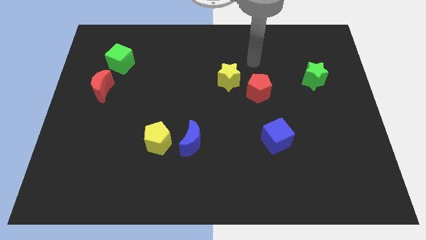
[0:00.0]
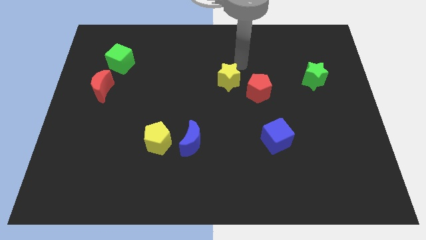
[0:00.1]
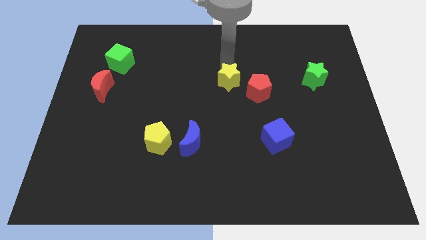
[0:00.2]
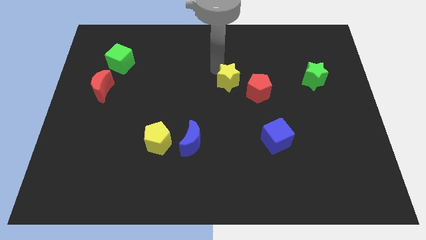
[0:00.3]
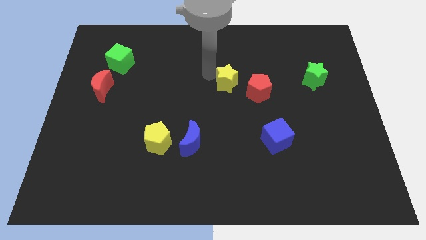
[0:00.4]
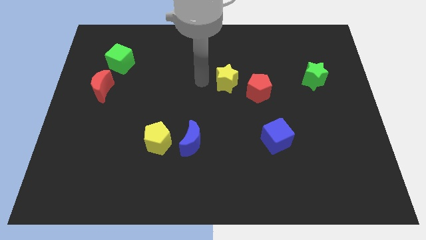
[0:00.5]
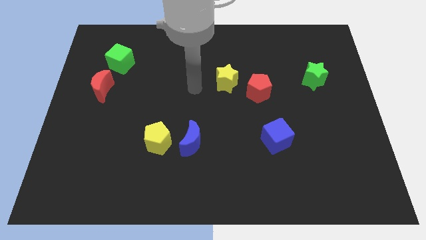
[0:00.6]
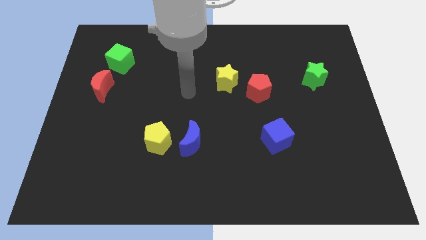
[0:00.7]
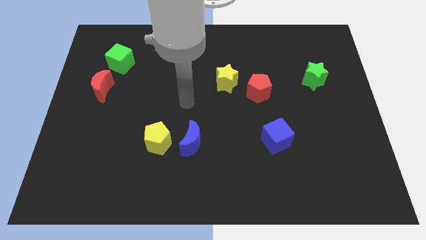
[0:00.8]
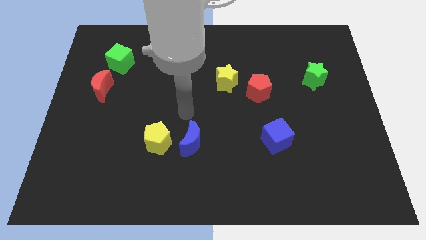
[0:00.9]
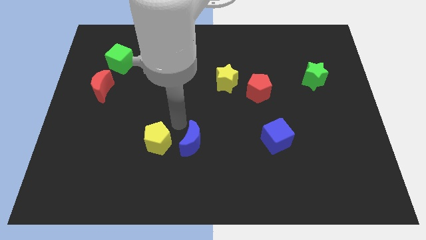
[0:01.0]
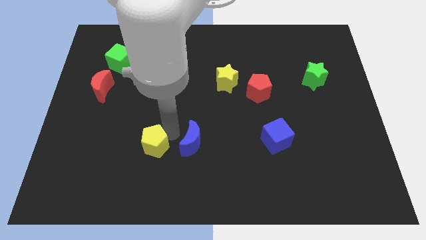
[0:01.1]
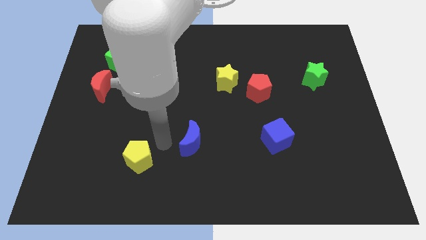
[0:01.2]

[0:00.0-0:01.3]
separate the blue moon from the yellow pentagon

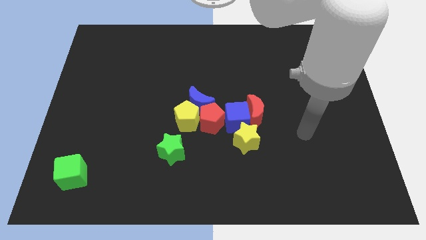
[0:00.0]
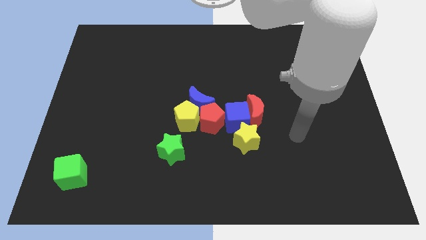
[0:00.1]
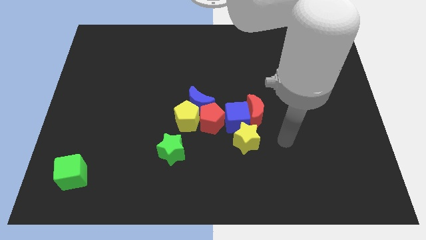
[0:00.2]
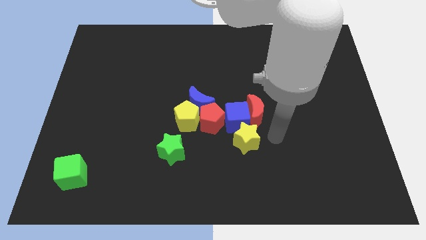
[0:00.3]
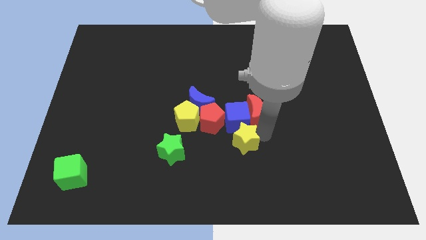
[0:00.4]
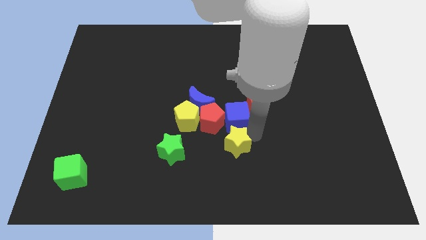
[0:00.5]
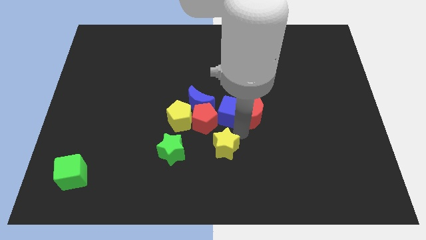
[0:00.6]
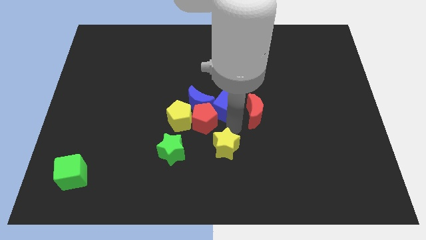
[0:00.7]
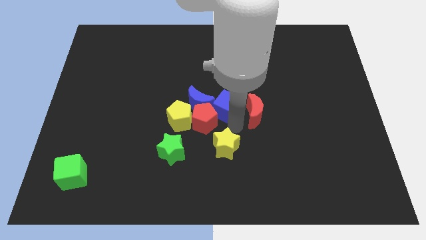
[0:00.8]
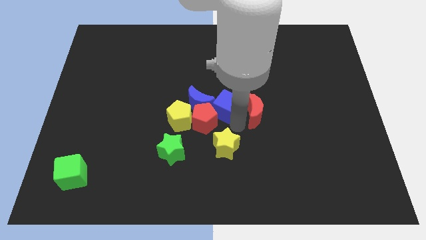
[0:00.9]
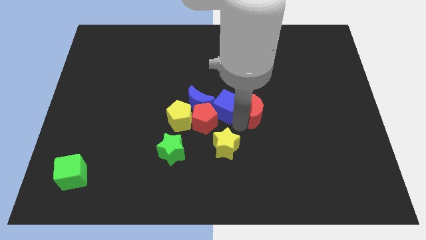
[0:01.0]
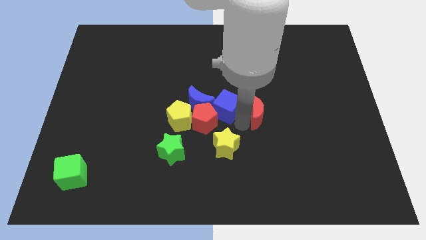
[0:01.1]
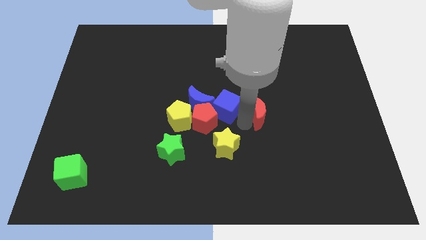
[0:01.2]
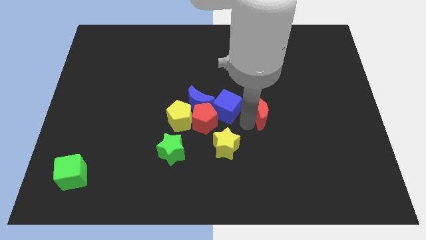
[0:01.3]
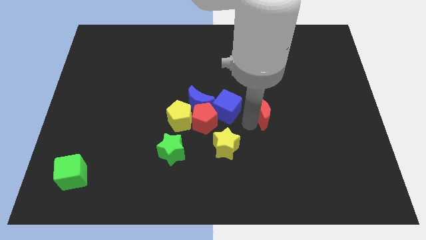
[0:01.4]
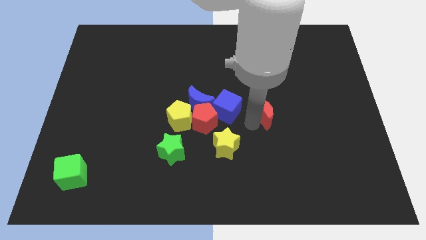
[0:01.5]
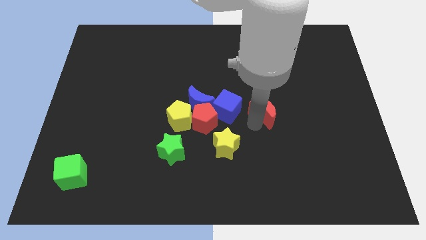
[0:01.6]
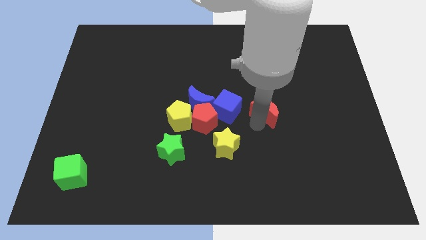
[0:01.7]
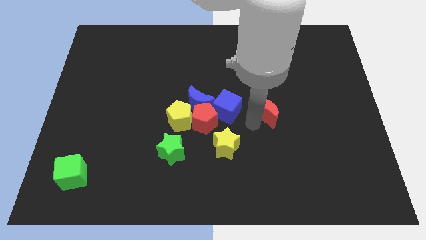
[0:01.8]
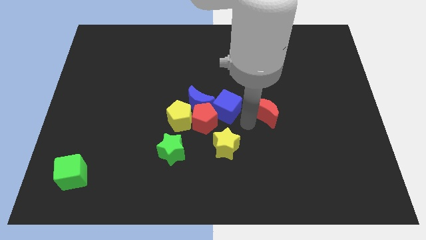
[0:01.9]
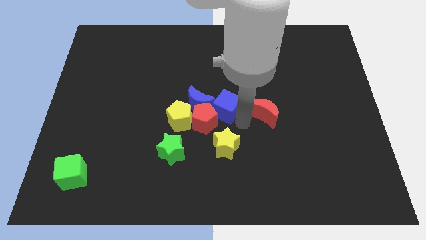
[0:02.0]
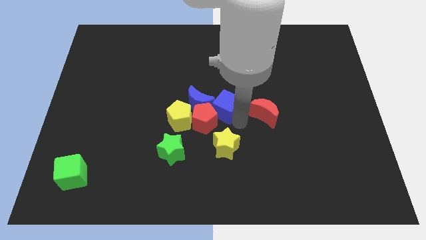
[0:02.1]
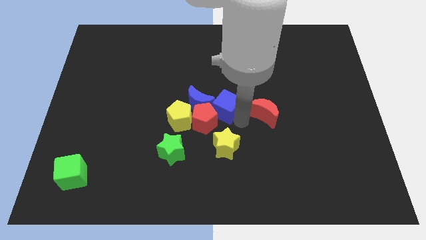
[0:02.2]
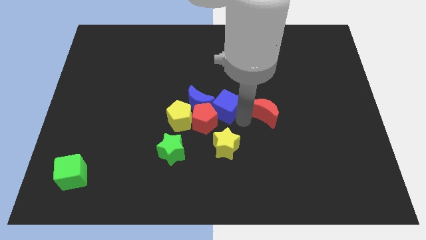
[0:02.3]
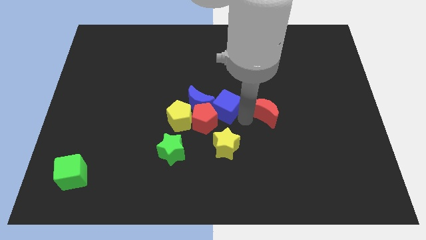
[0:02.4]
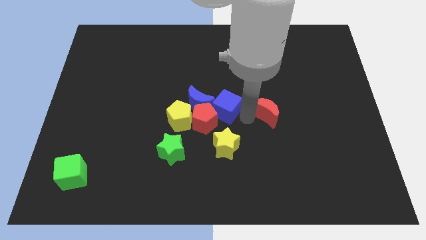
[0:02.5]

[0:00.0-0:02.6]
separate the red moon from the blue cube and yellow star

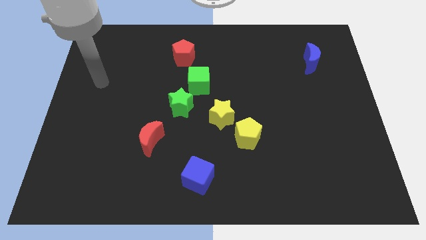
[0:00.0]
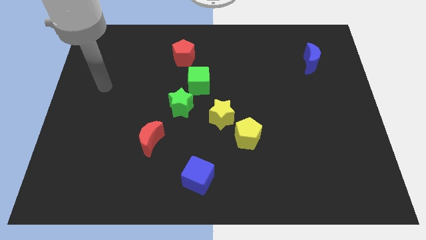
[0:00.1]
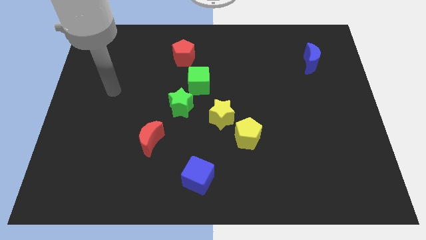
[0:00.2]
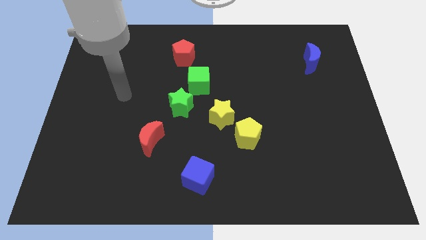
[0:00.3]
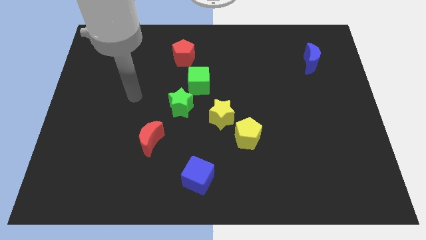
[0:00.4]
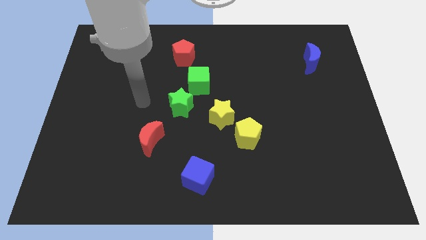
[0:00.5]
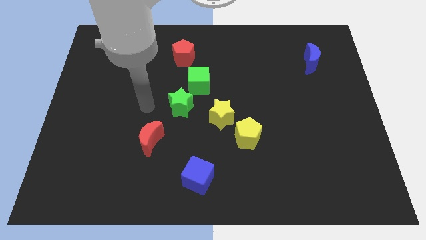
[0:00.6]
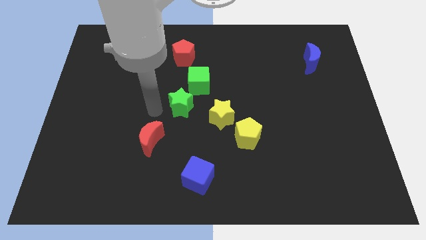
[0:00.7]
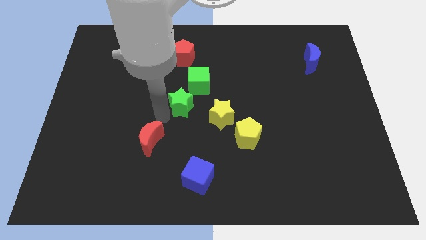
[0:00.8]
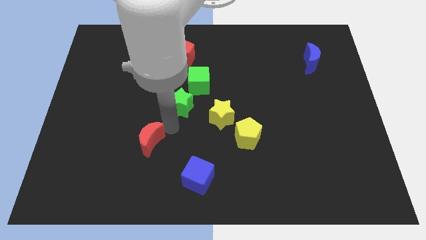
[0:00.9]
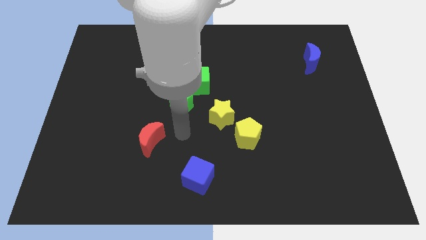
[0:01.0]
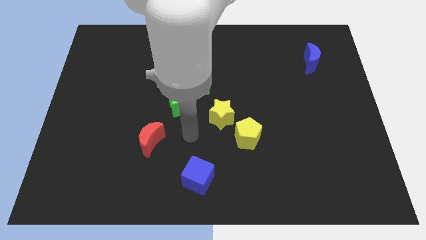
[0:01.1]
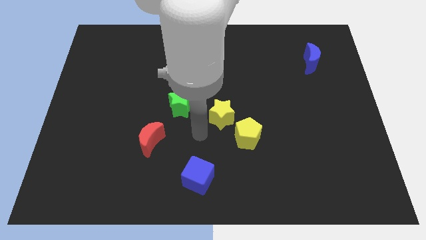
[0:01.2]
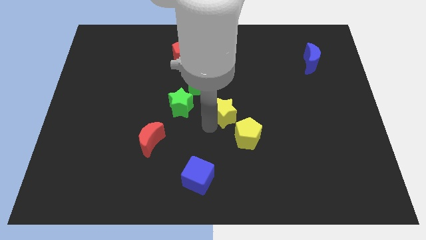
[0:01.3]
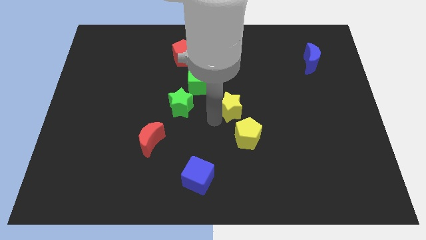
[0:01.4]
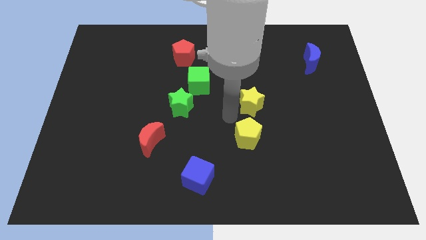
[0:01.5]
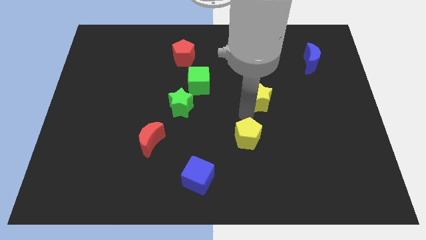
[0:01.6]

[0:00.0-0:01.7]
separate the yellow pentagon from the yellow star

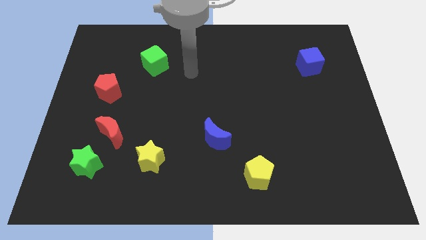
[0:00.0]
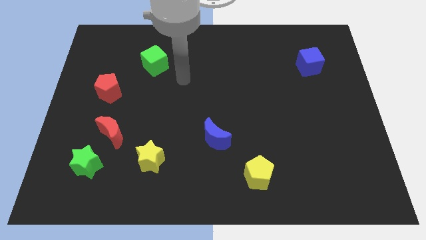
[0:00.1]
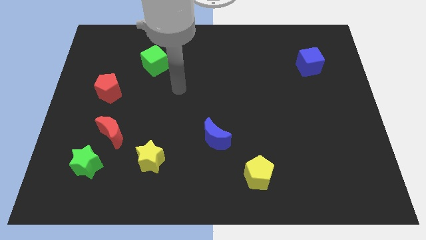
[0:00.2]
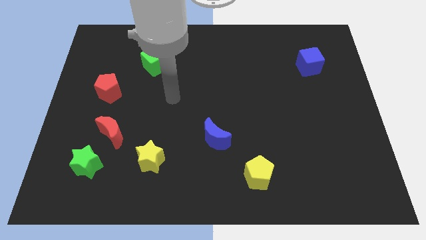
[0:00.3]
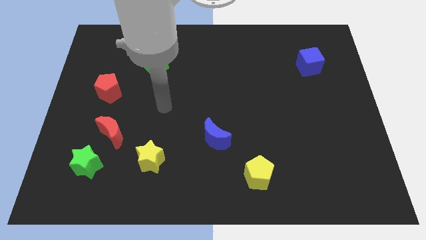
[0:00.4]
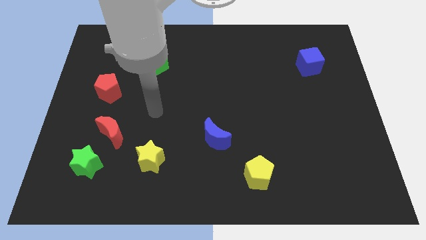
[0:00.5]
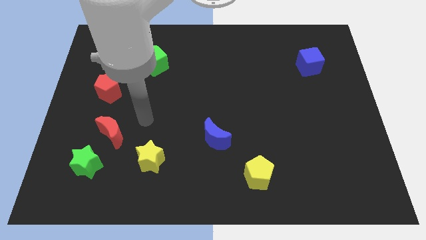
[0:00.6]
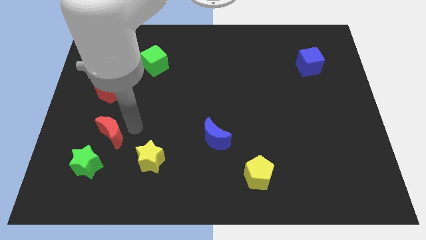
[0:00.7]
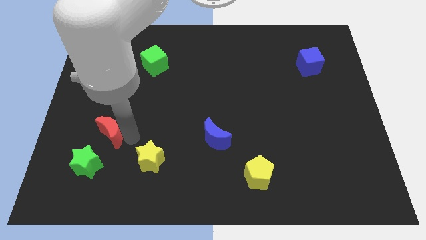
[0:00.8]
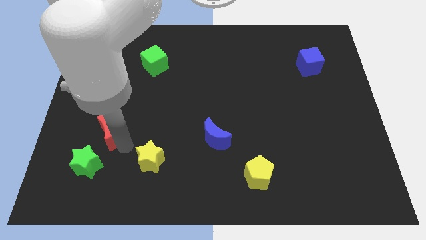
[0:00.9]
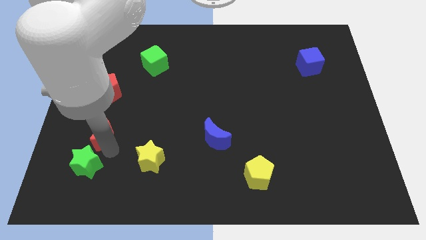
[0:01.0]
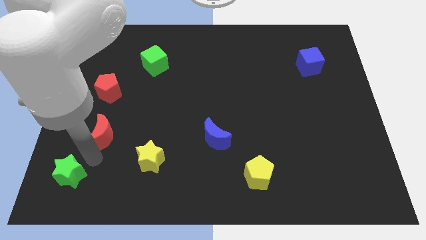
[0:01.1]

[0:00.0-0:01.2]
pull the red moon apart from the green star

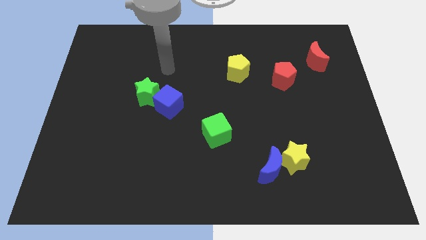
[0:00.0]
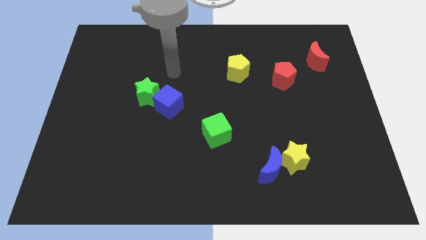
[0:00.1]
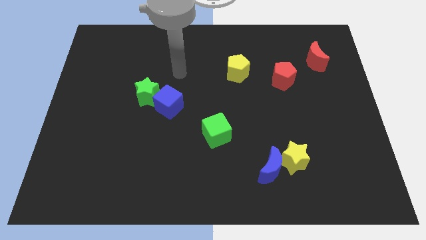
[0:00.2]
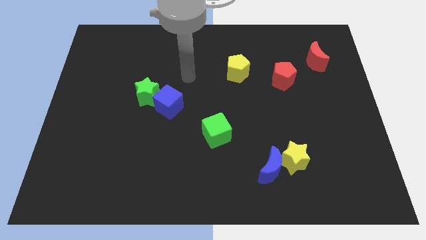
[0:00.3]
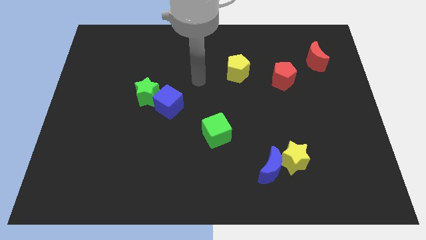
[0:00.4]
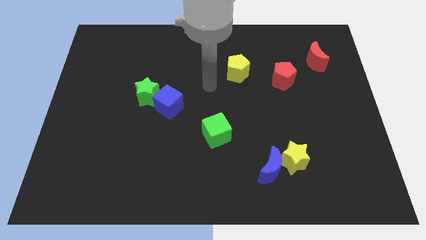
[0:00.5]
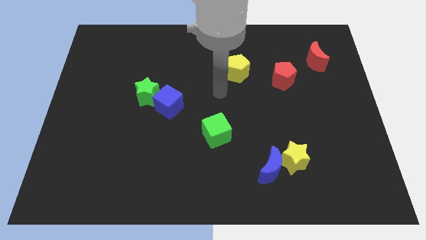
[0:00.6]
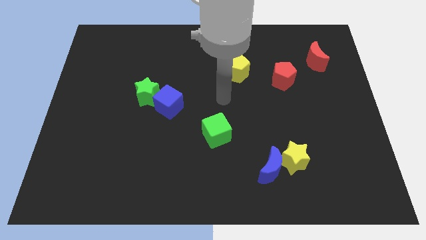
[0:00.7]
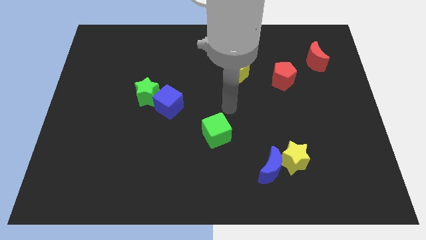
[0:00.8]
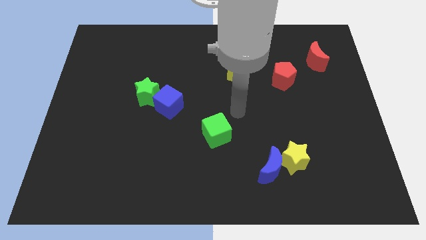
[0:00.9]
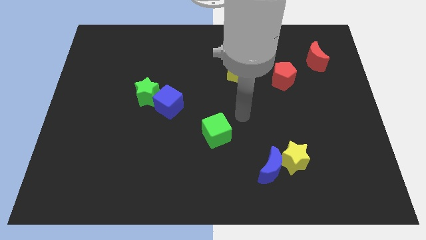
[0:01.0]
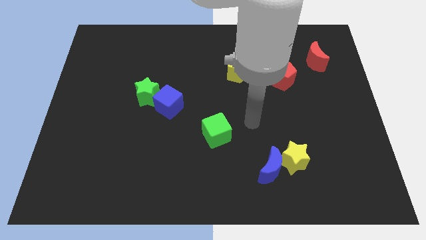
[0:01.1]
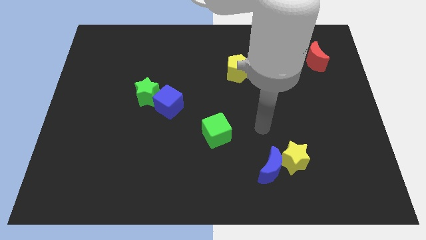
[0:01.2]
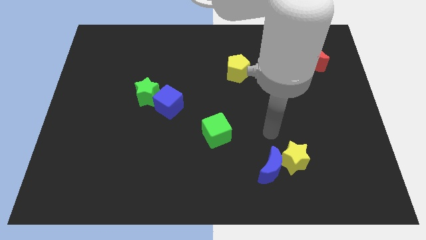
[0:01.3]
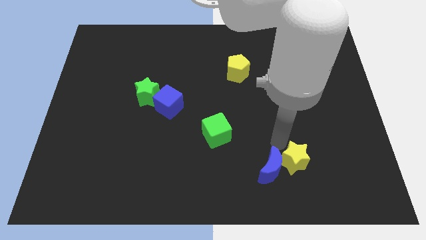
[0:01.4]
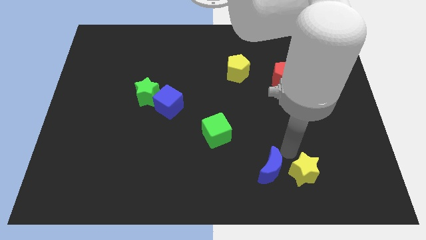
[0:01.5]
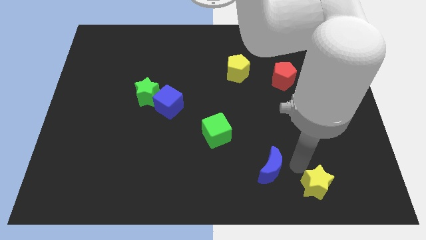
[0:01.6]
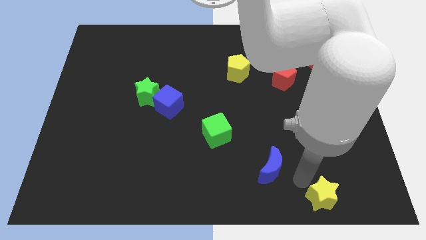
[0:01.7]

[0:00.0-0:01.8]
pull the blue moon apart from the yellow star

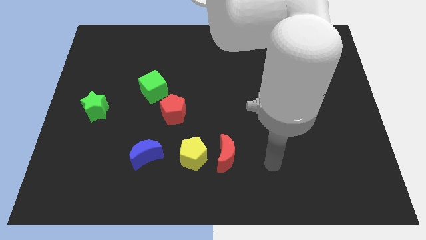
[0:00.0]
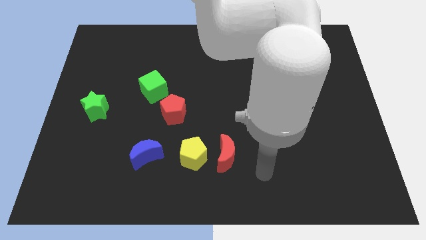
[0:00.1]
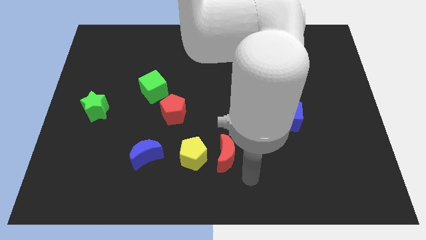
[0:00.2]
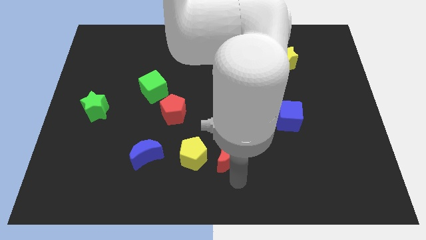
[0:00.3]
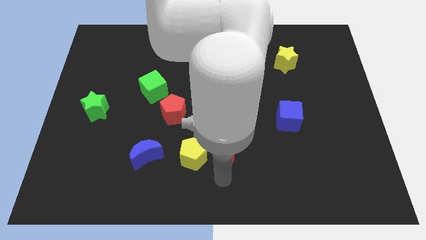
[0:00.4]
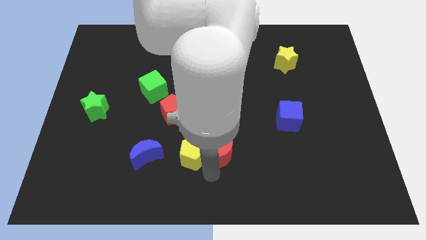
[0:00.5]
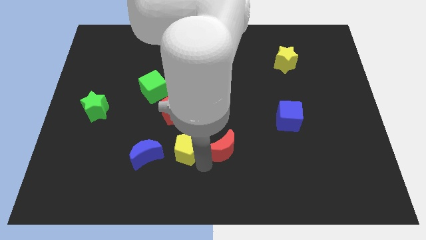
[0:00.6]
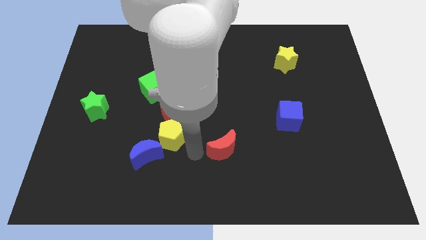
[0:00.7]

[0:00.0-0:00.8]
pull the red moon apart from the yellow pentagon
